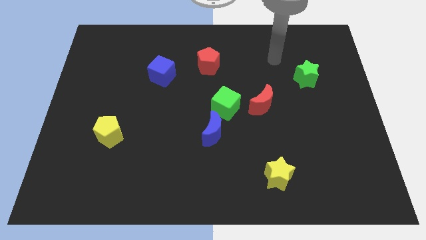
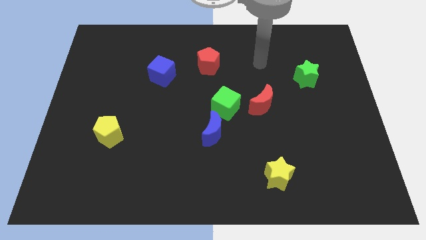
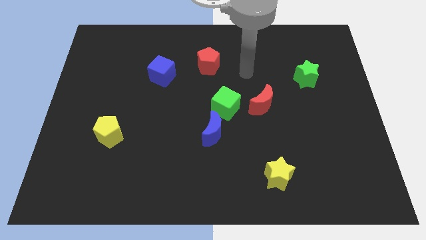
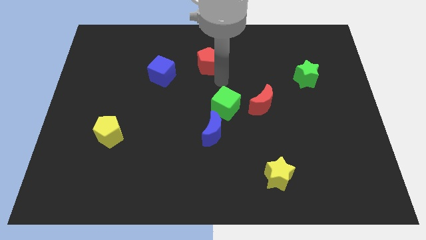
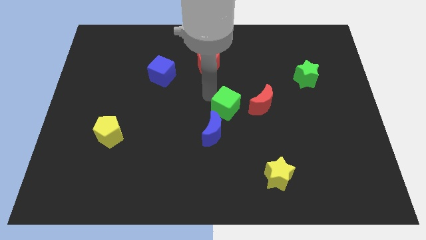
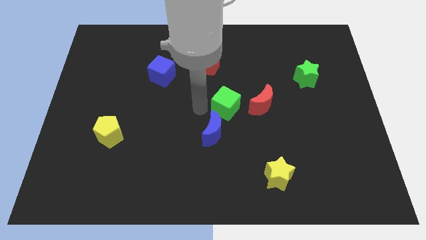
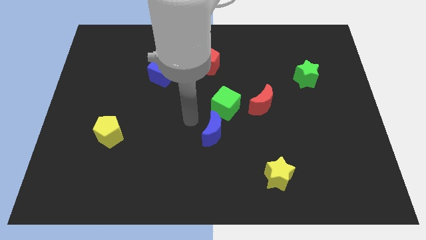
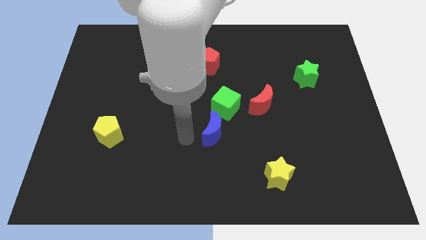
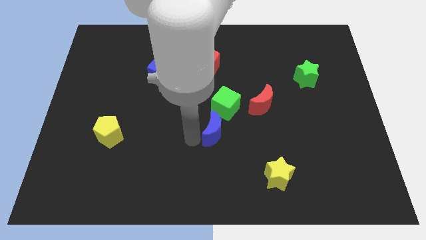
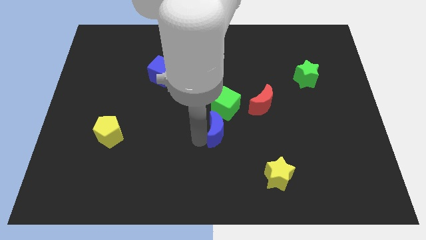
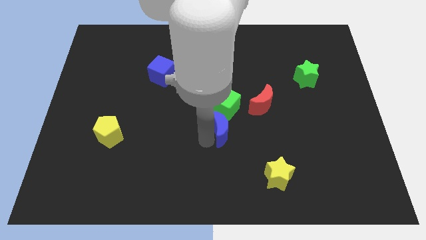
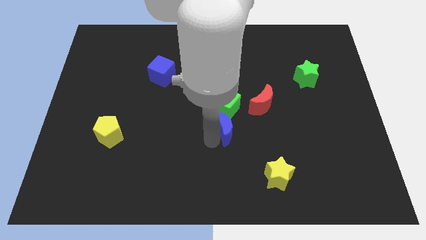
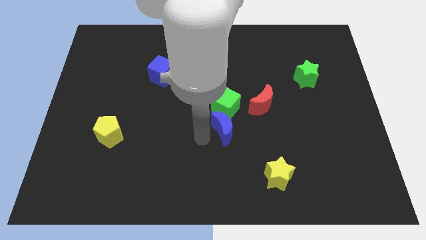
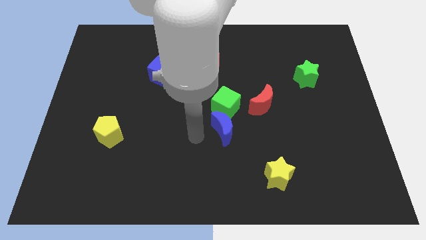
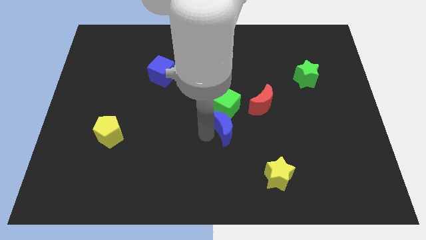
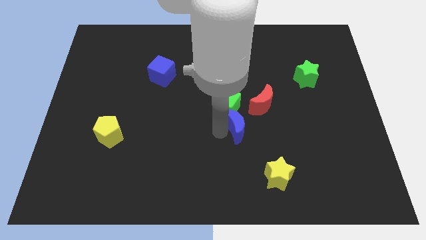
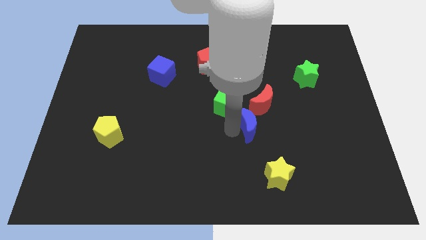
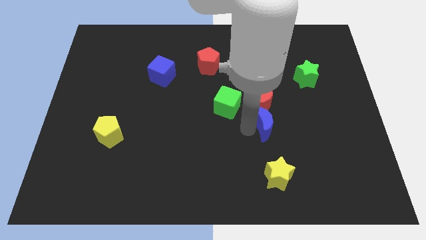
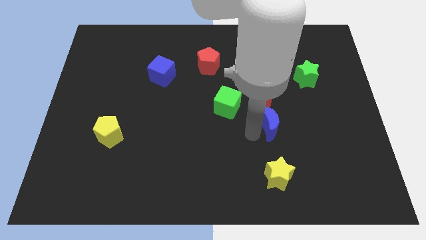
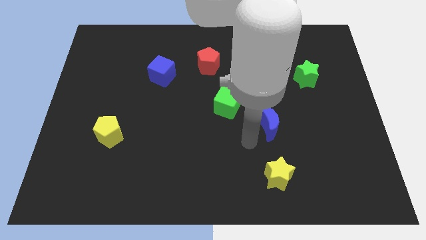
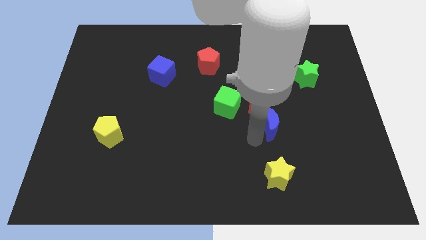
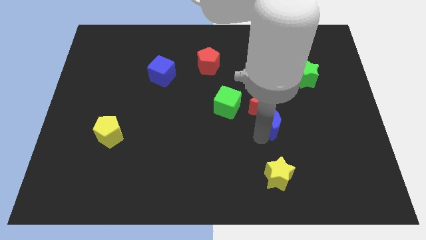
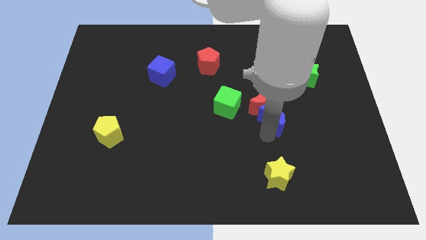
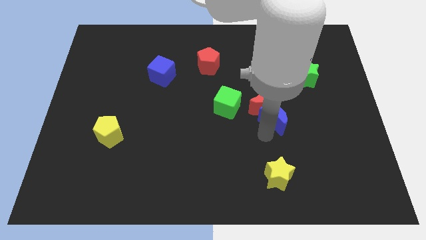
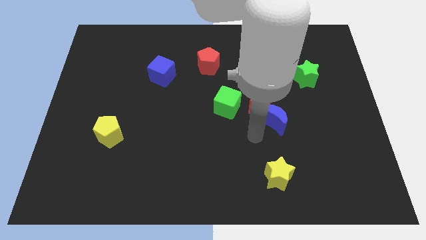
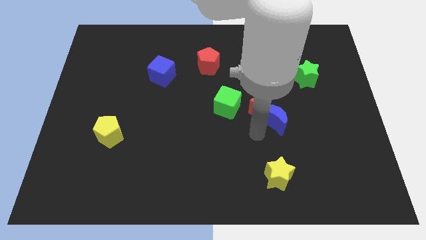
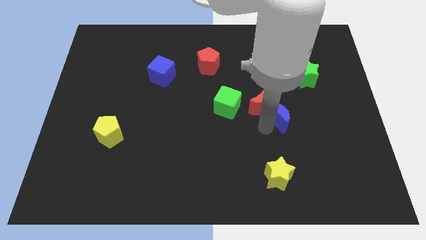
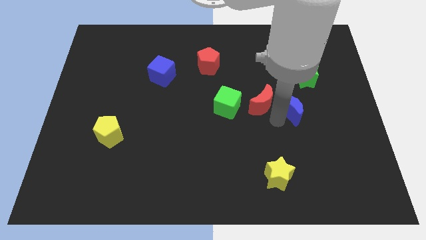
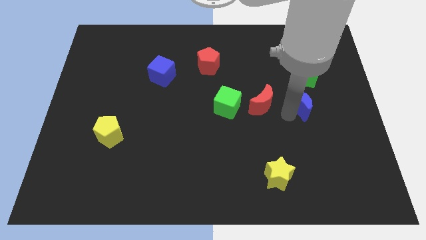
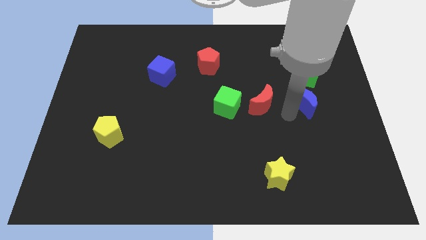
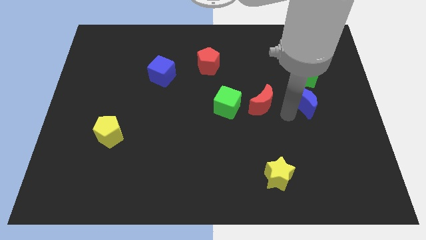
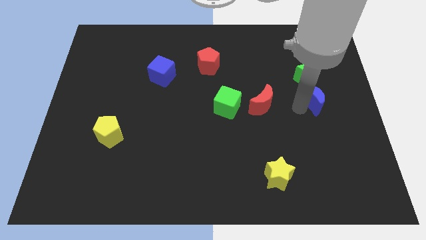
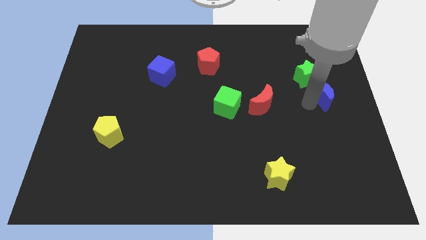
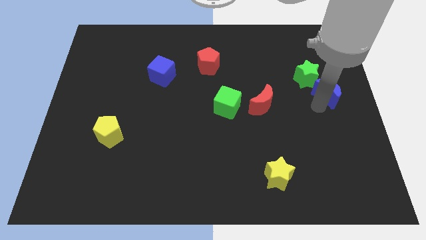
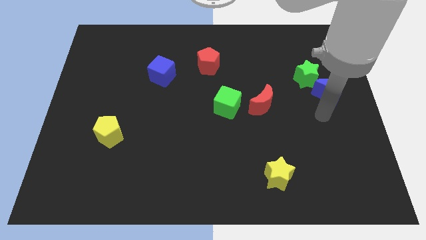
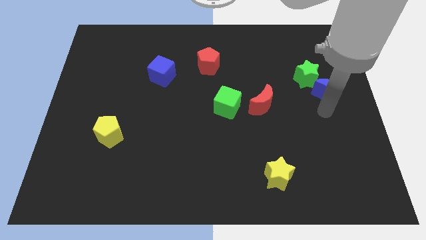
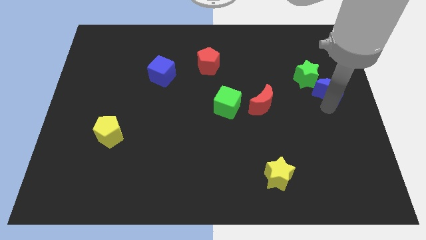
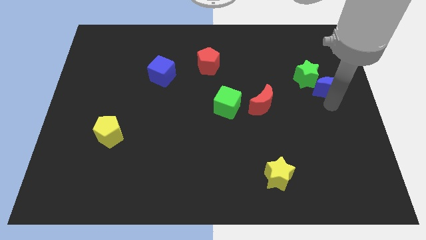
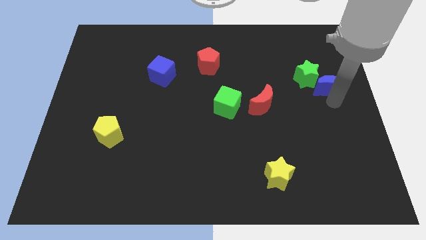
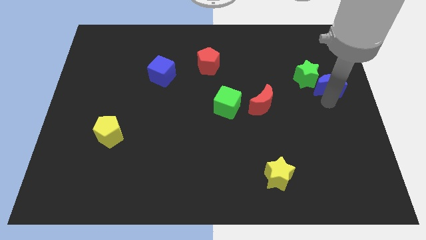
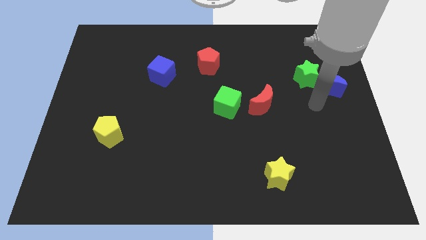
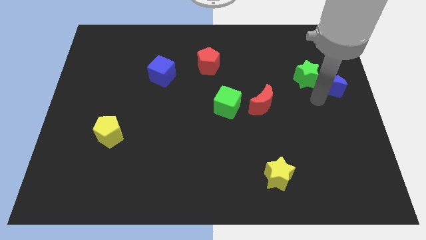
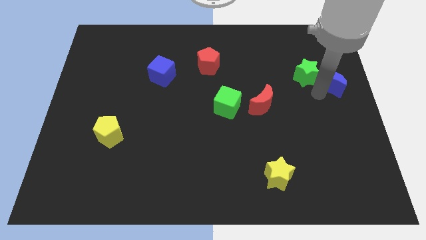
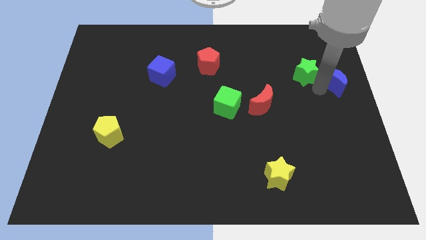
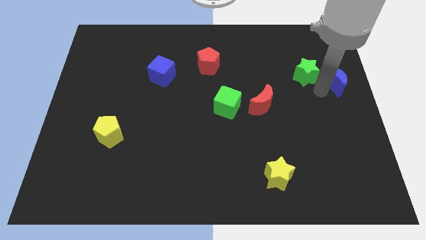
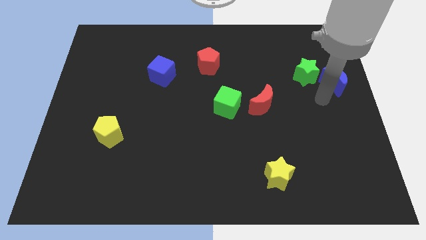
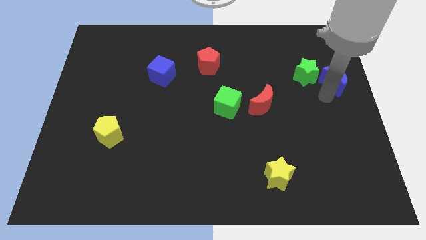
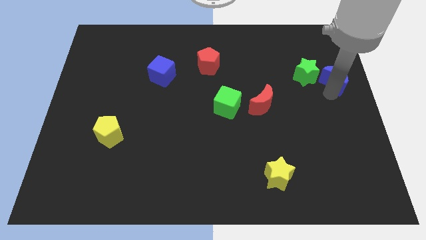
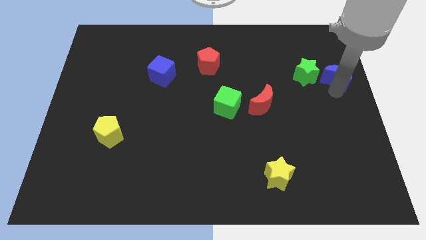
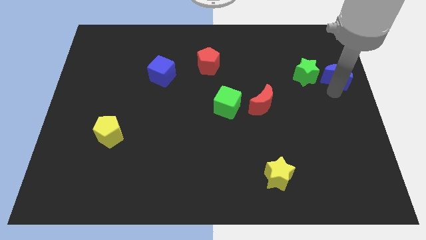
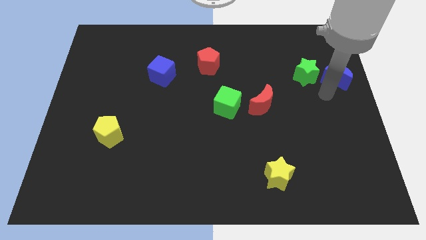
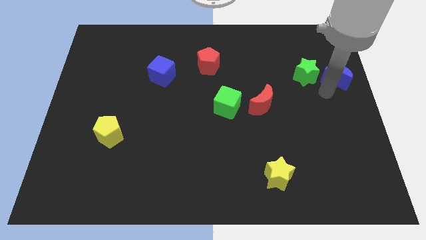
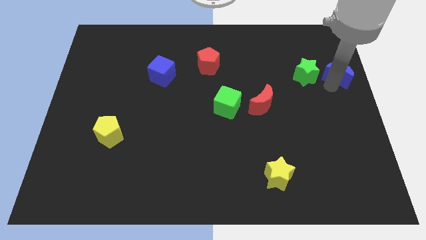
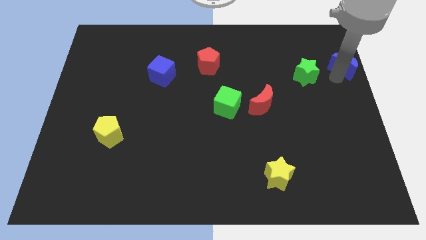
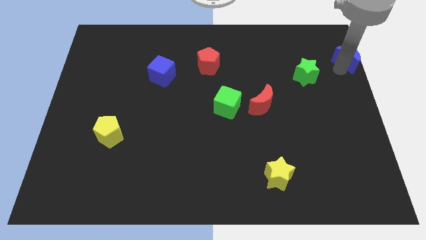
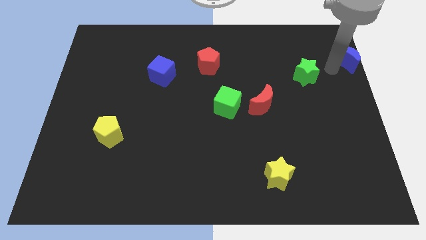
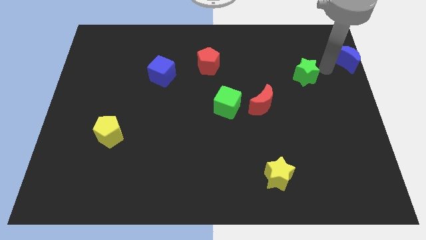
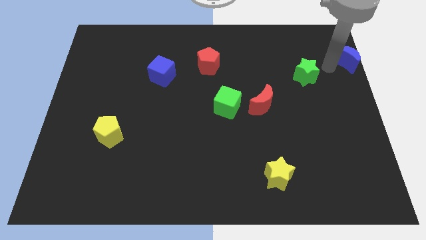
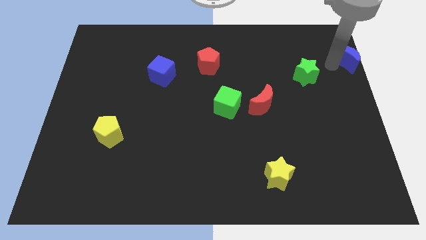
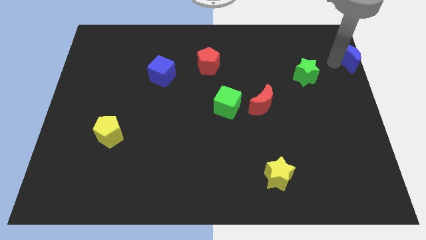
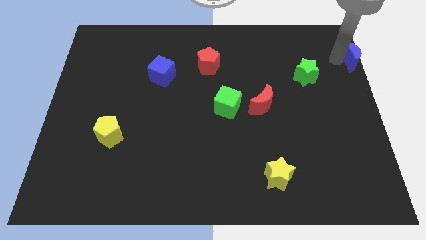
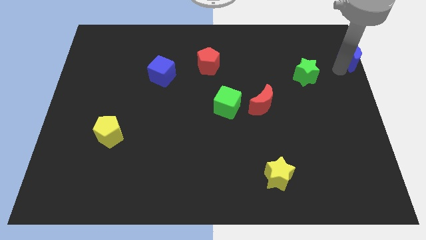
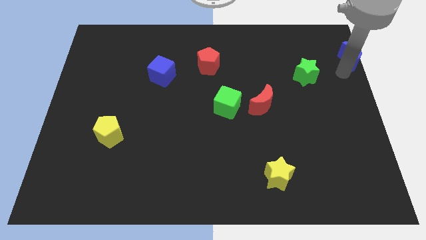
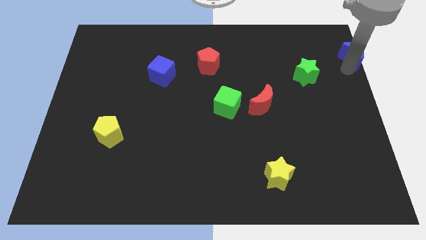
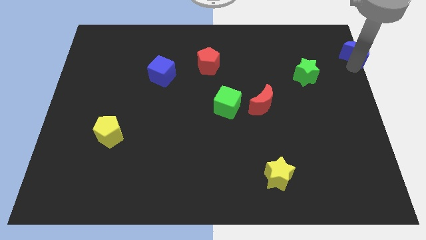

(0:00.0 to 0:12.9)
move the blue moon to the top right
